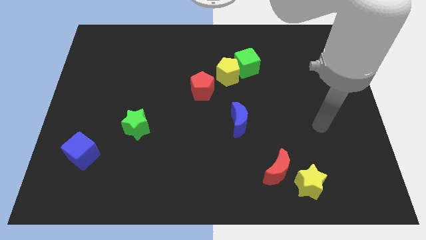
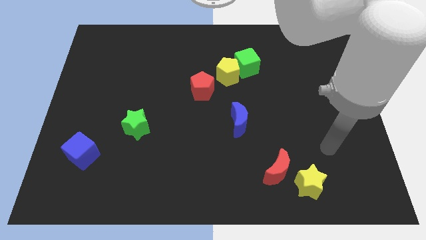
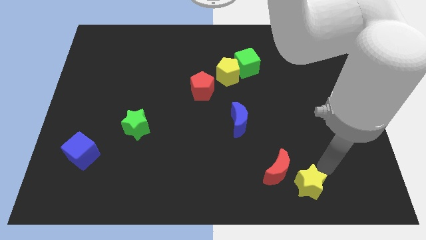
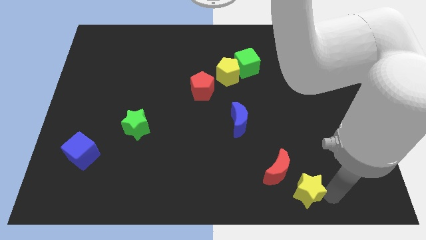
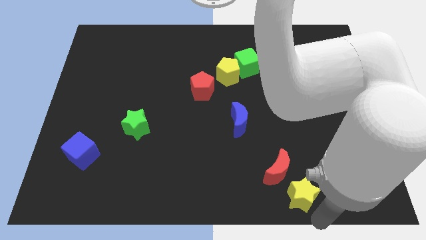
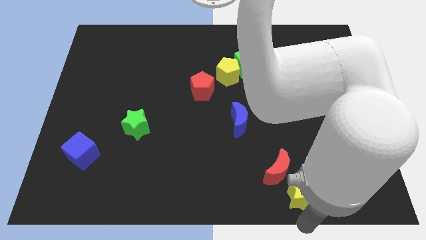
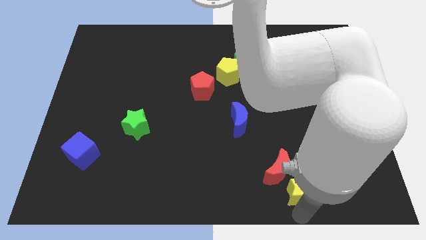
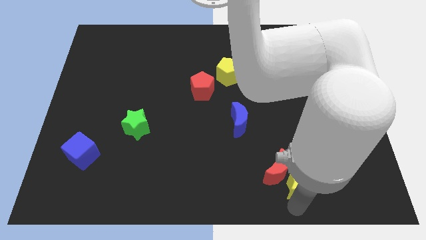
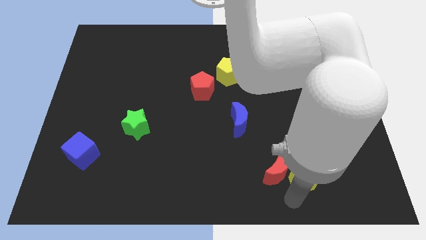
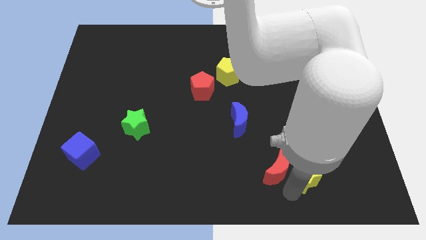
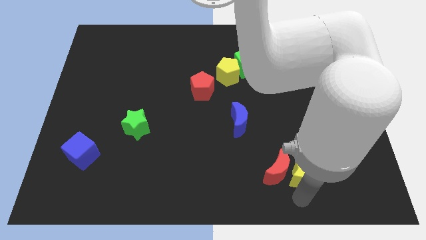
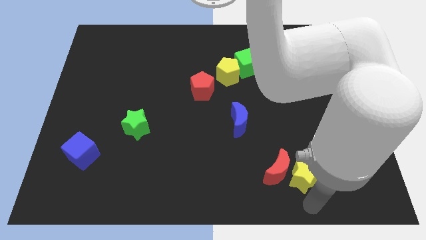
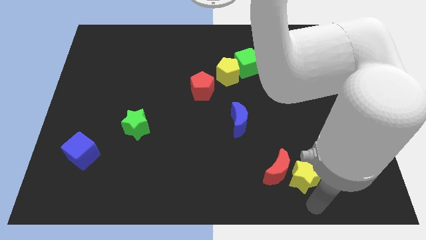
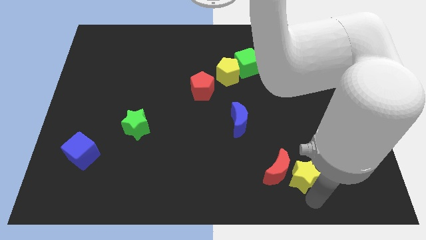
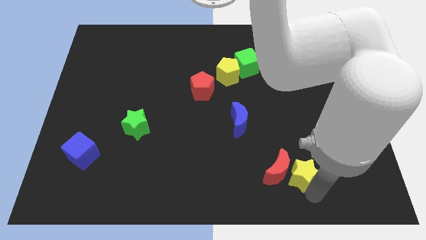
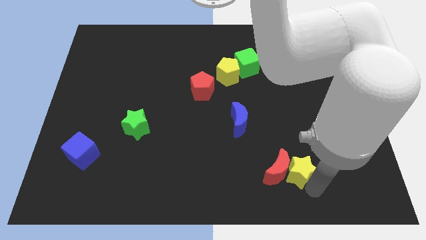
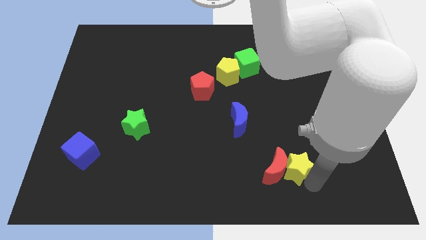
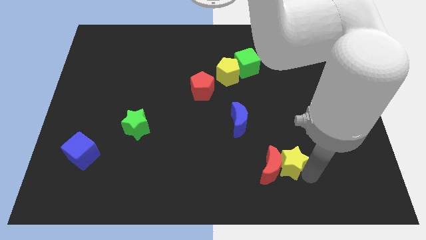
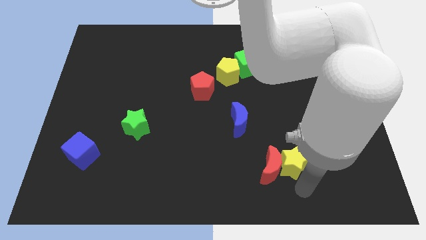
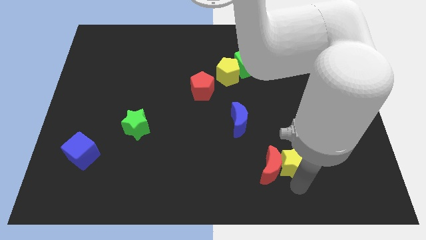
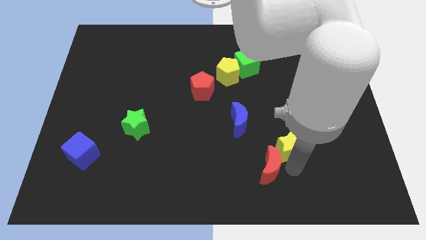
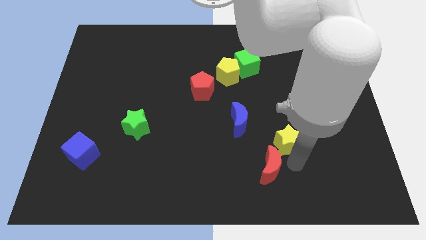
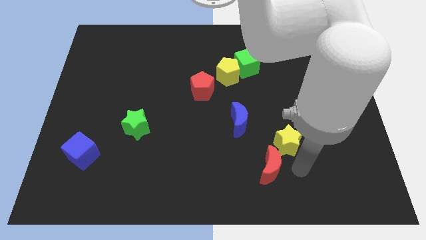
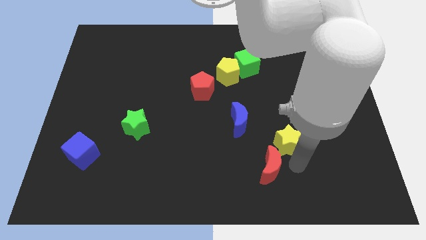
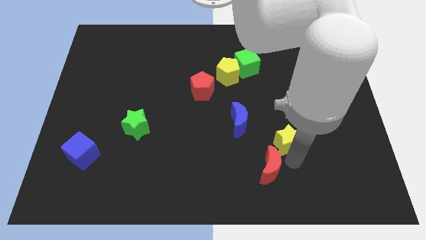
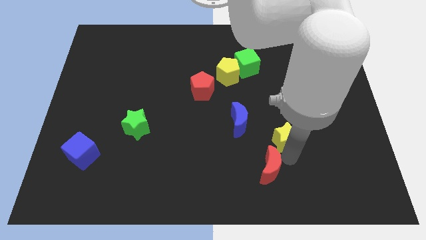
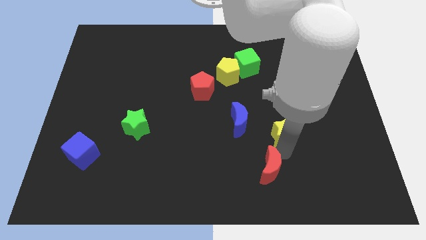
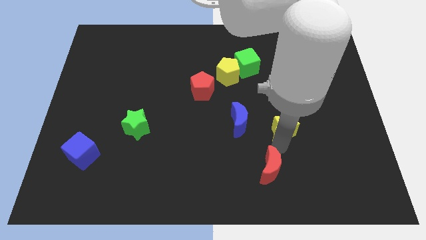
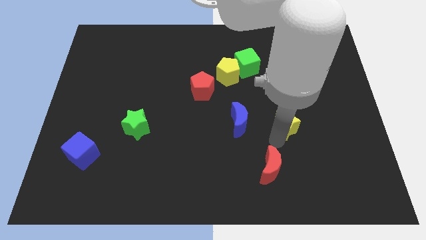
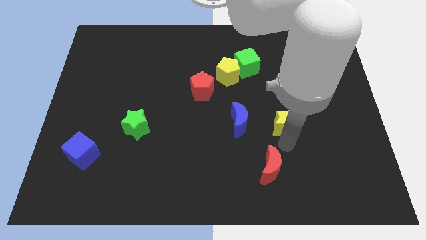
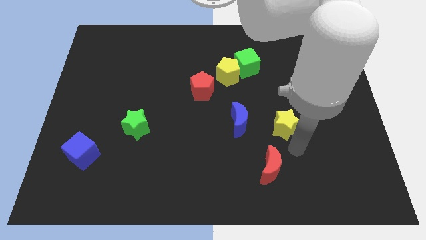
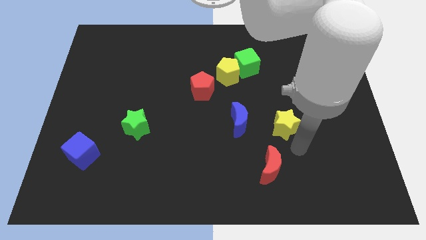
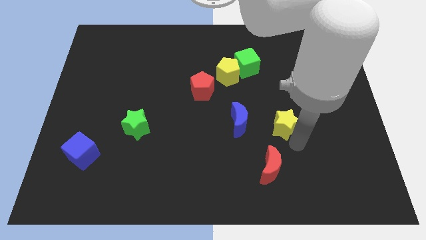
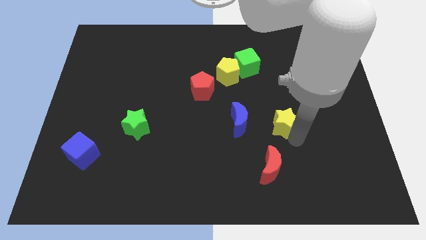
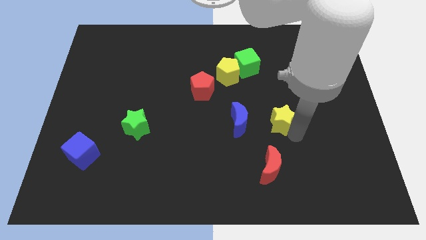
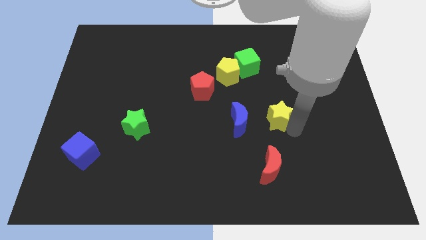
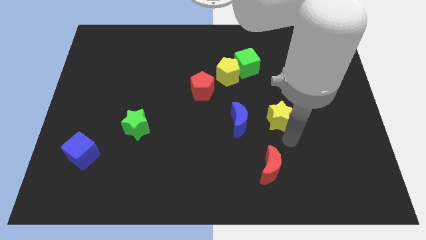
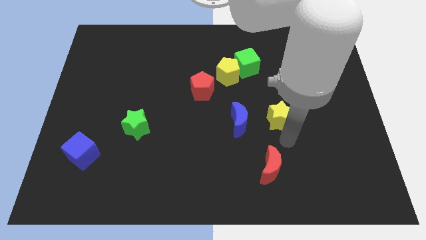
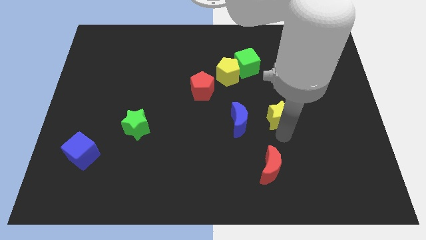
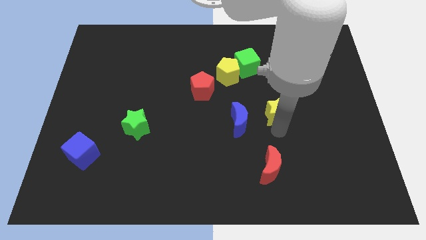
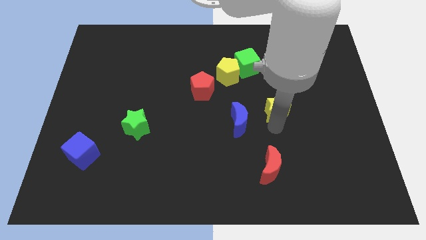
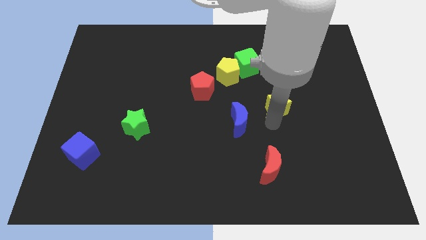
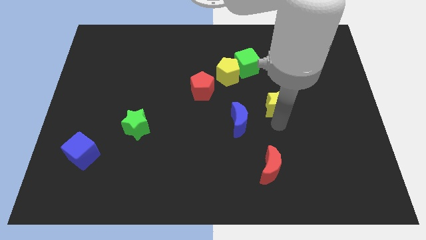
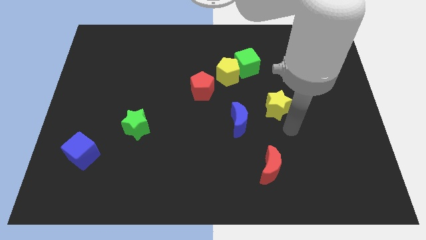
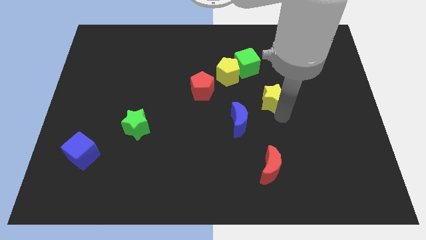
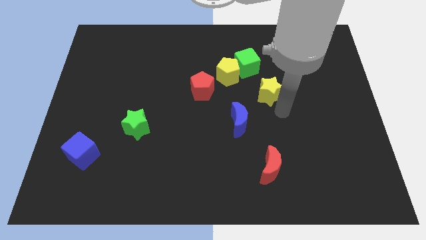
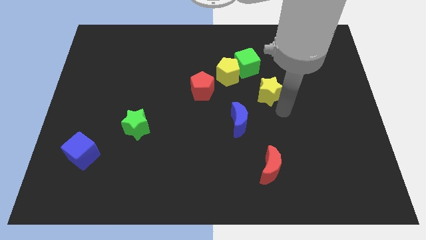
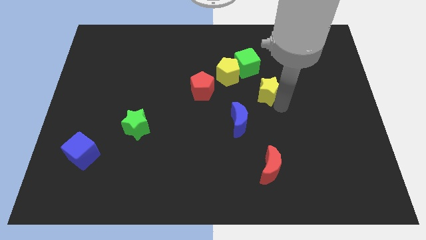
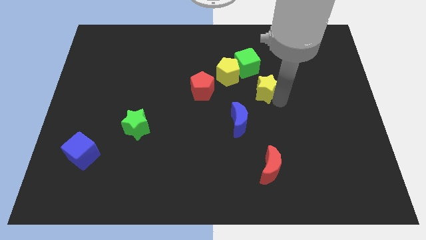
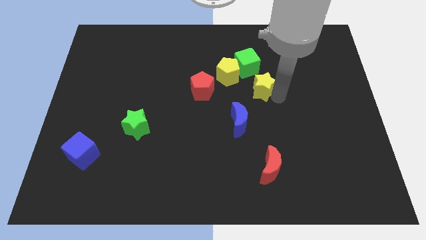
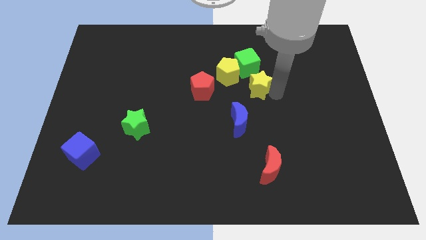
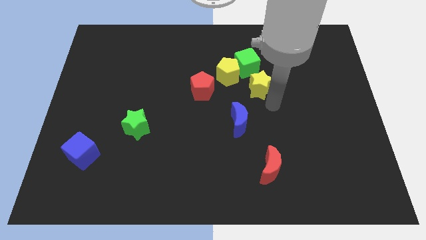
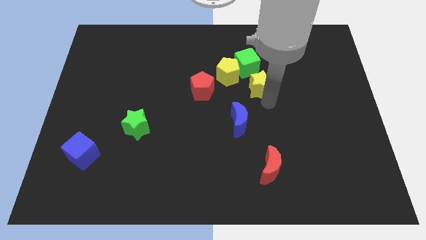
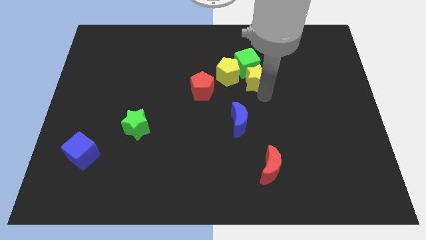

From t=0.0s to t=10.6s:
put the yellow star to the green cube

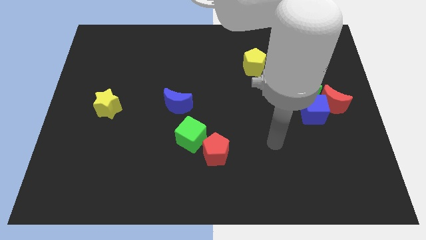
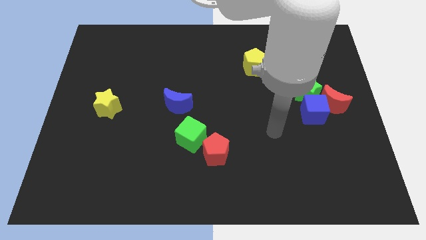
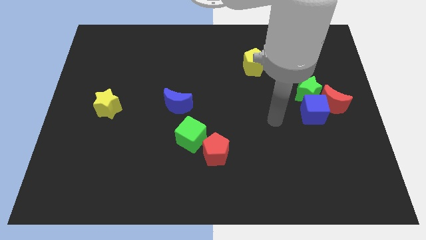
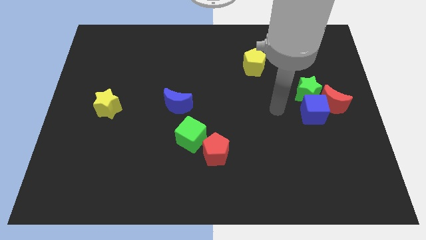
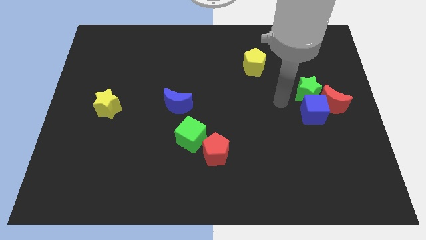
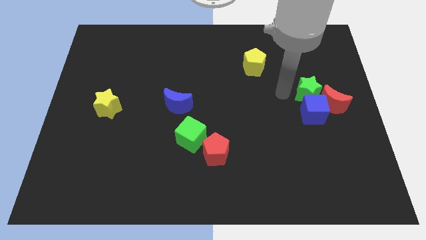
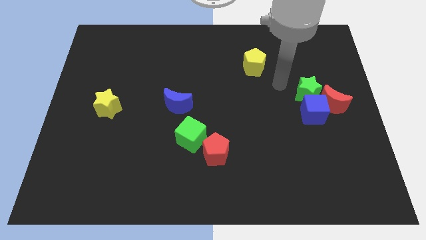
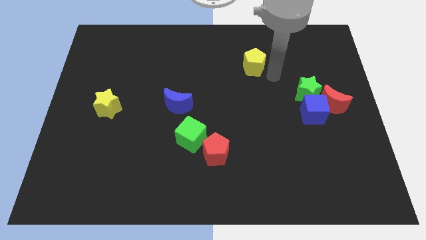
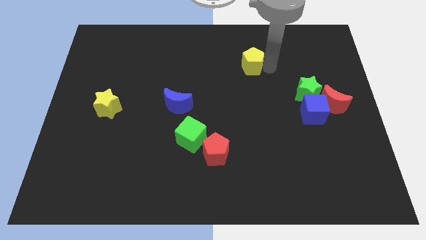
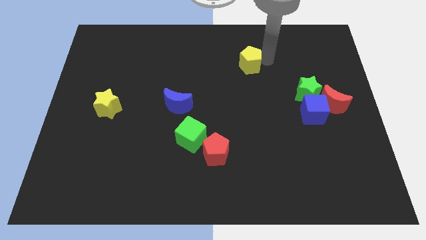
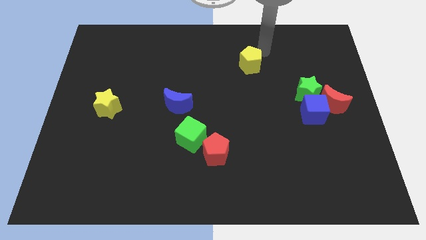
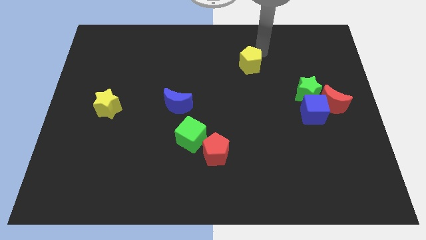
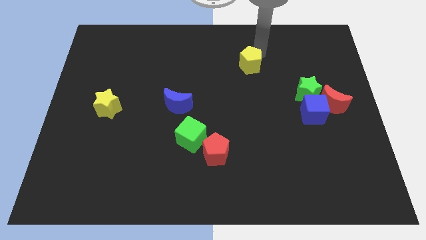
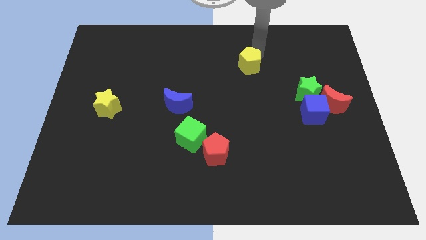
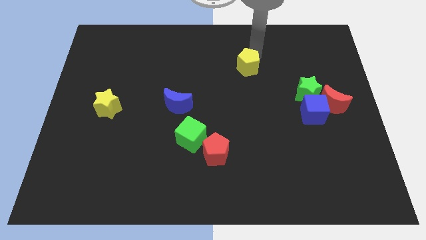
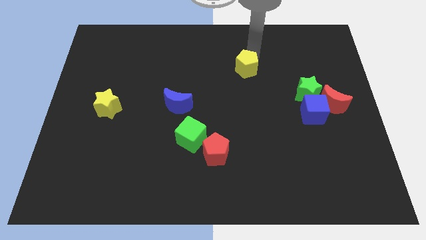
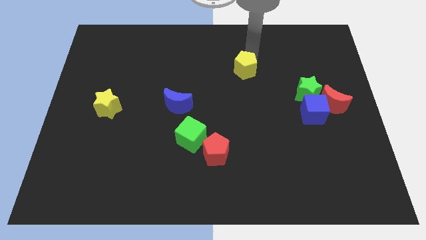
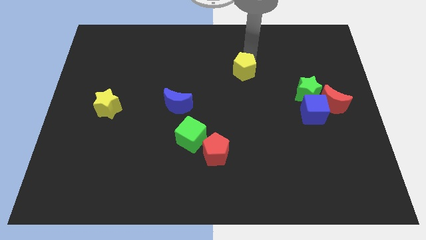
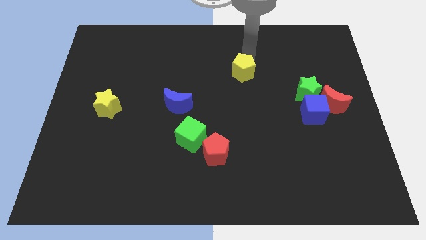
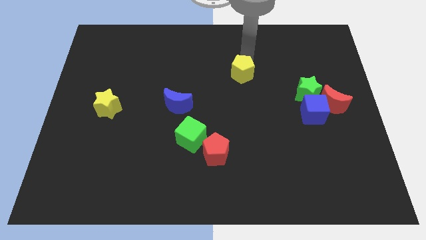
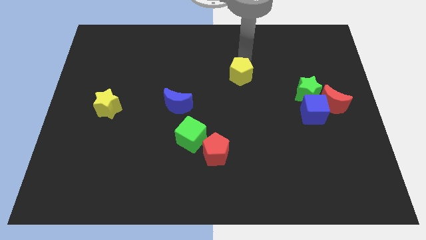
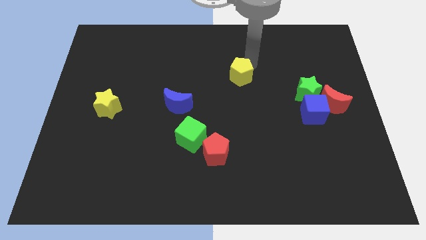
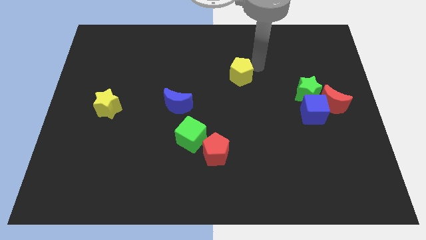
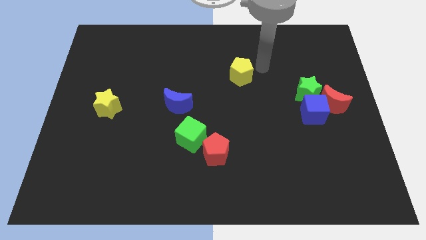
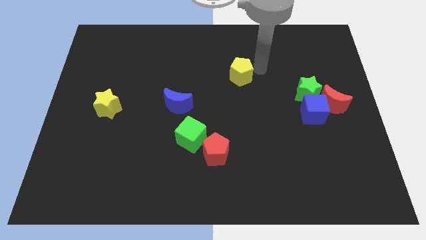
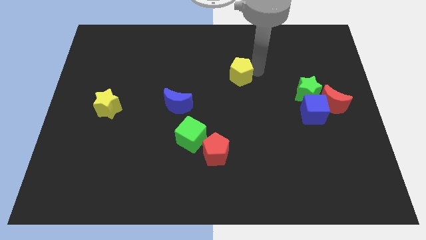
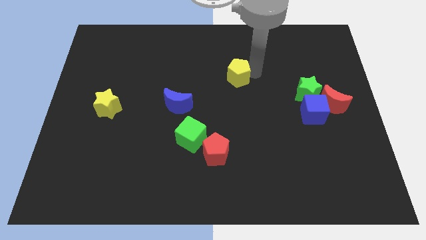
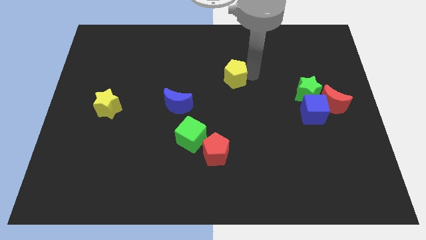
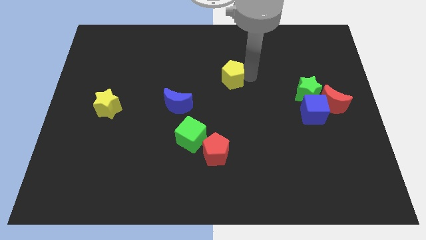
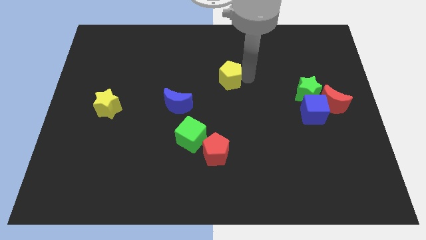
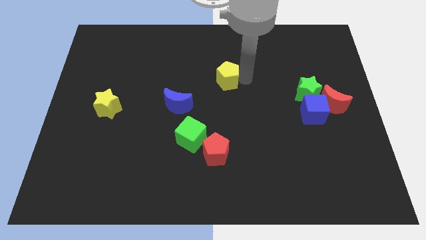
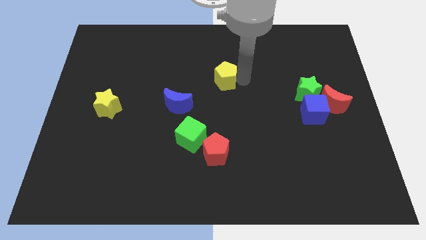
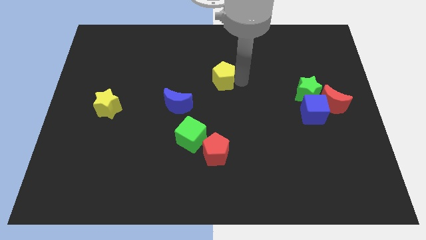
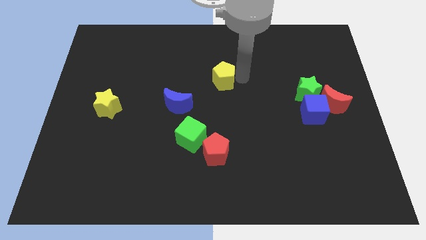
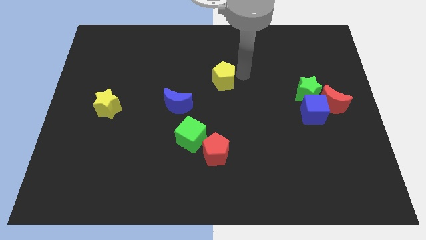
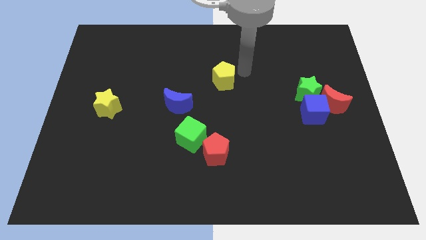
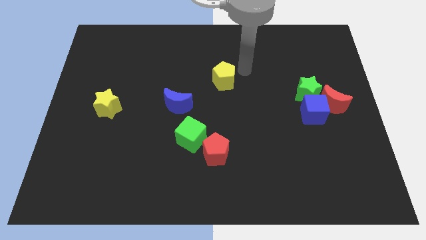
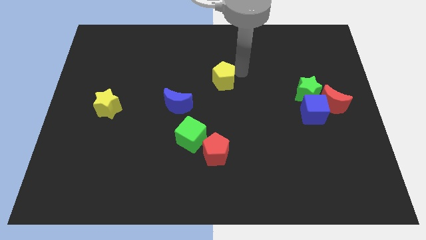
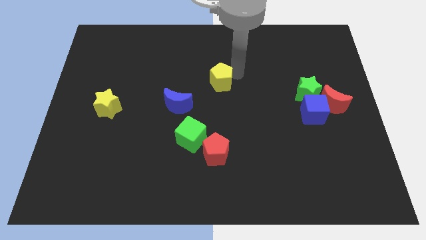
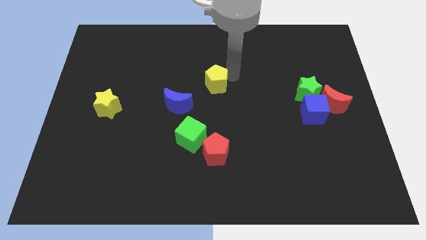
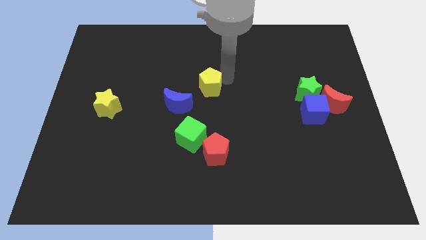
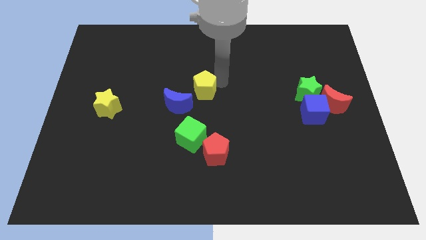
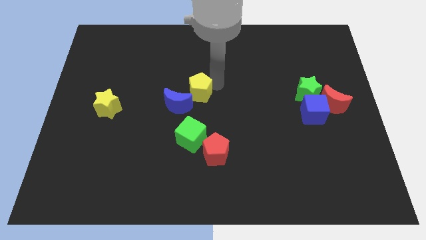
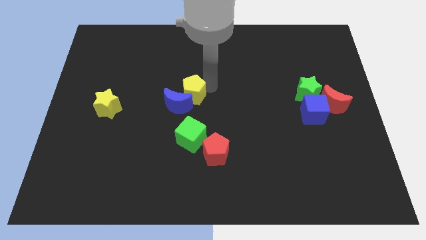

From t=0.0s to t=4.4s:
push the yellow pentagon close to the blue moon
